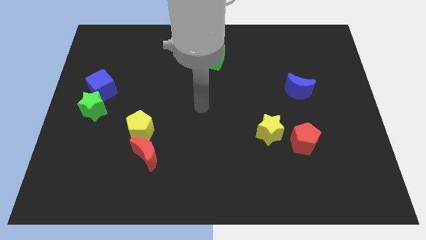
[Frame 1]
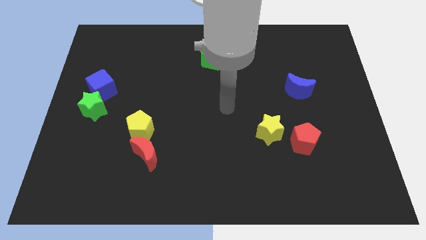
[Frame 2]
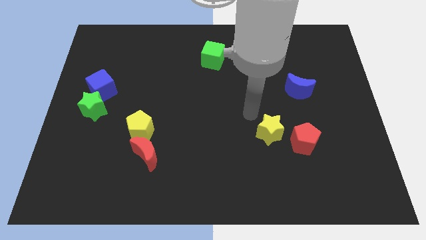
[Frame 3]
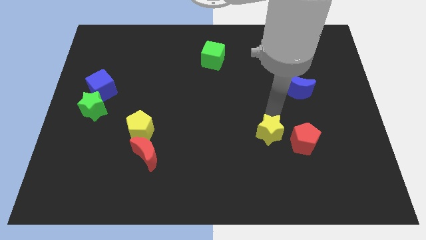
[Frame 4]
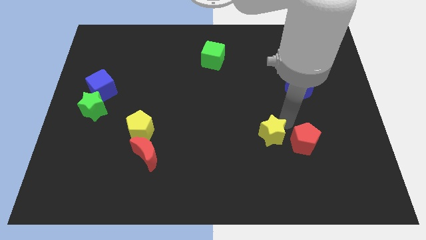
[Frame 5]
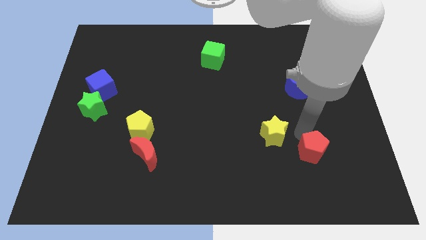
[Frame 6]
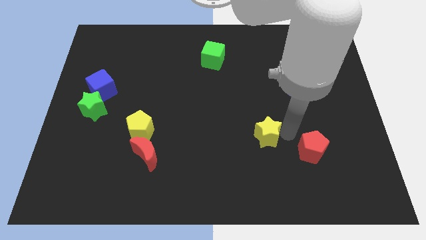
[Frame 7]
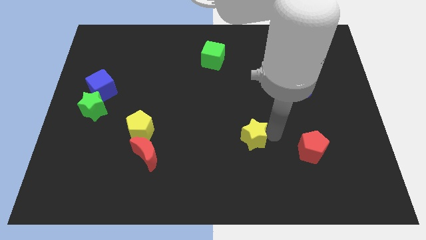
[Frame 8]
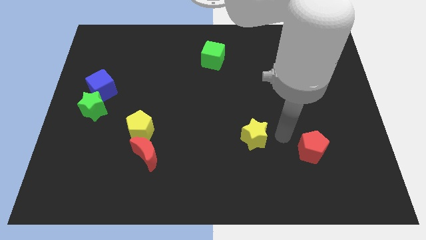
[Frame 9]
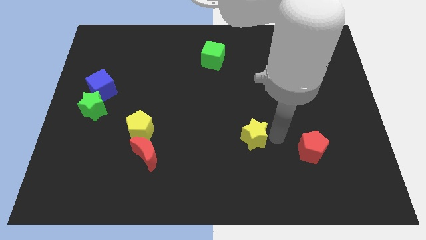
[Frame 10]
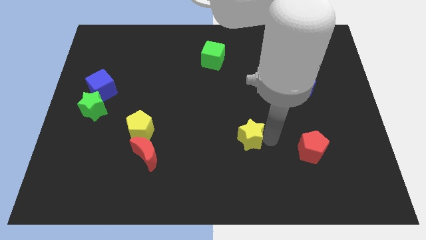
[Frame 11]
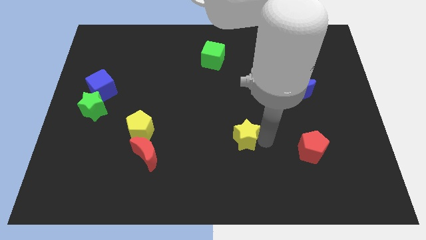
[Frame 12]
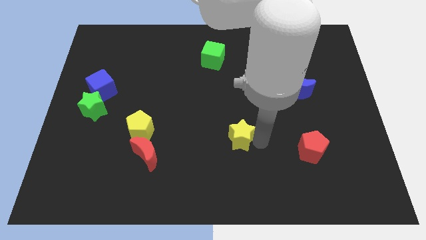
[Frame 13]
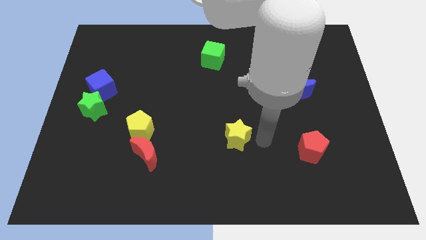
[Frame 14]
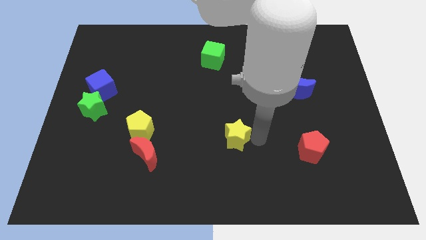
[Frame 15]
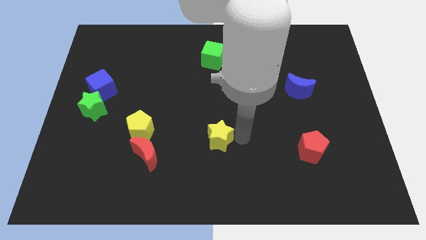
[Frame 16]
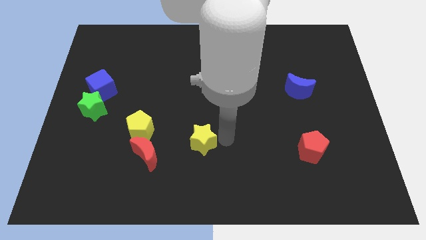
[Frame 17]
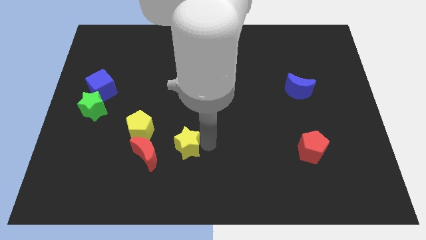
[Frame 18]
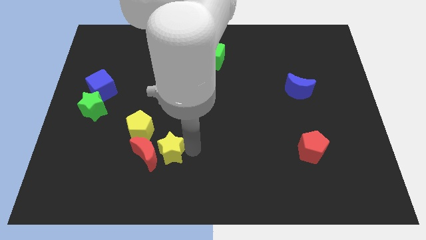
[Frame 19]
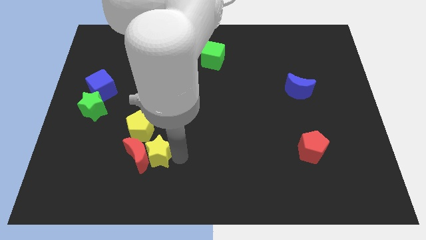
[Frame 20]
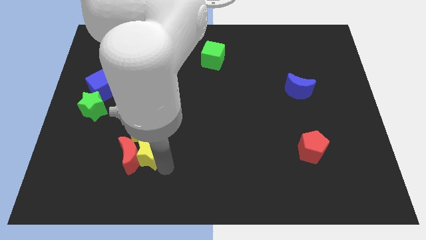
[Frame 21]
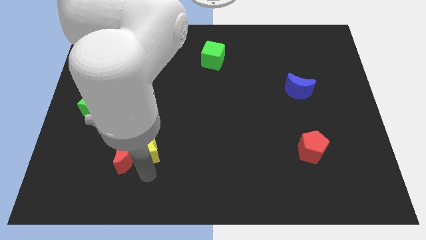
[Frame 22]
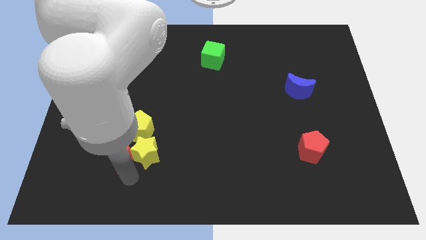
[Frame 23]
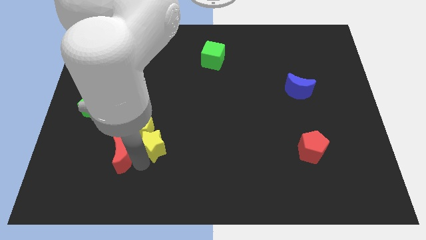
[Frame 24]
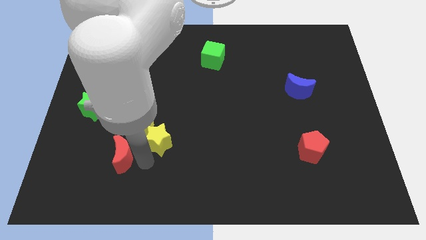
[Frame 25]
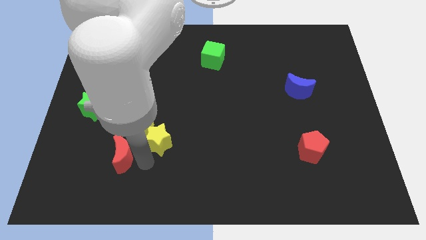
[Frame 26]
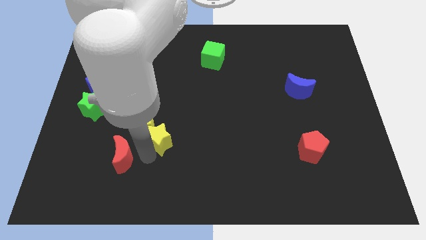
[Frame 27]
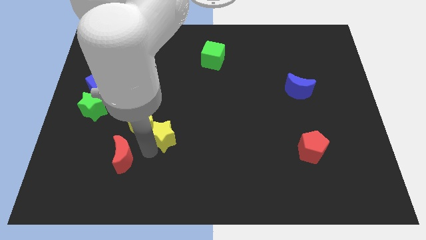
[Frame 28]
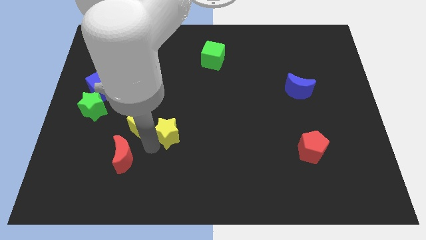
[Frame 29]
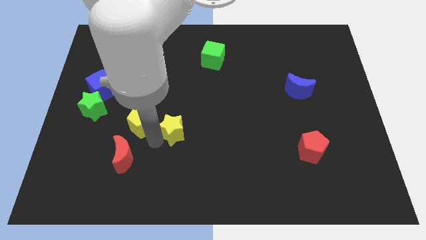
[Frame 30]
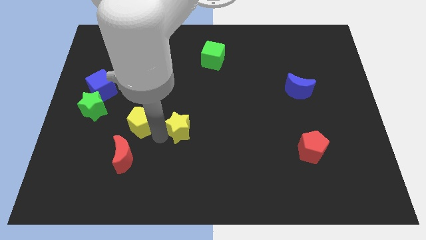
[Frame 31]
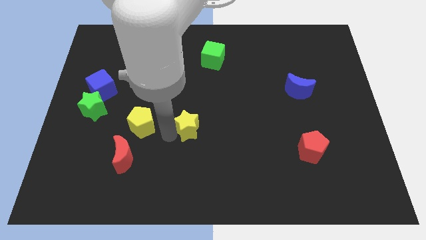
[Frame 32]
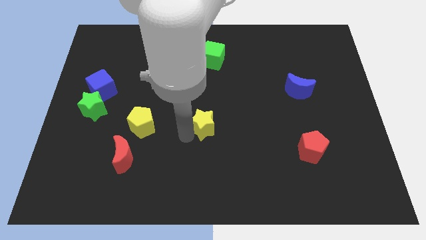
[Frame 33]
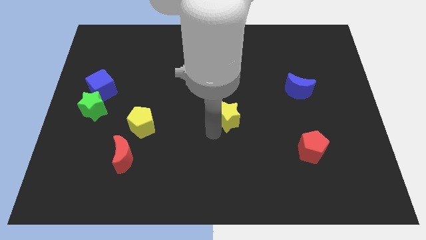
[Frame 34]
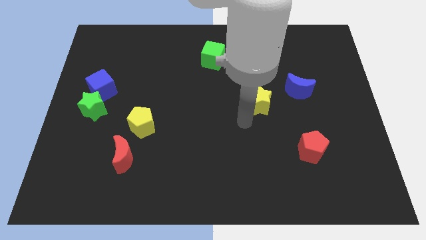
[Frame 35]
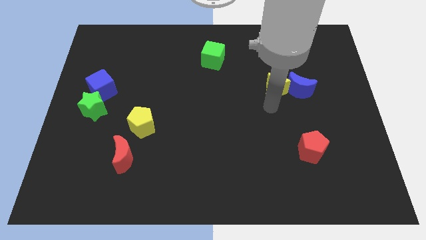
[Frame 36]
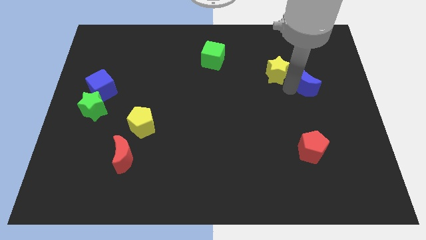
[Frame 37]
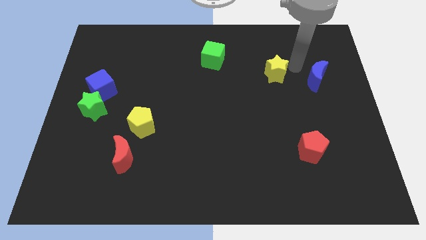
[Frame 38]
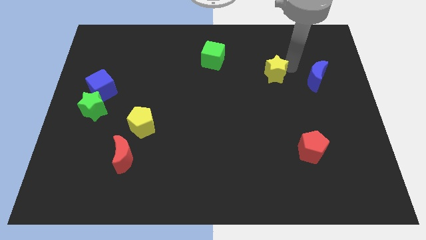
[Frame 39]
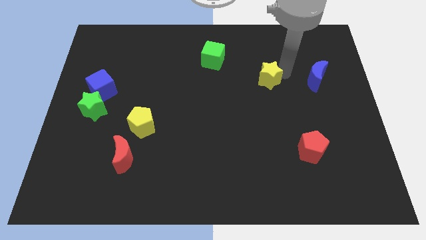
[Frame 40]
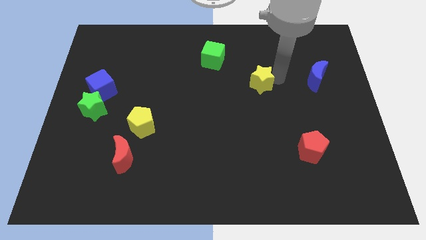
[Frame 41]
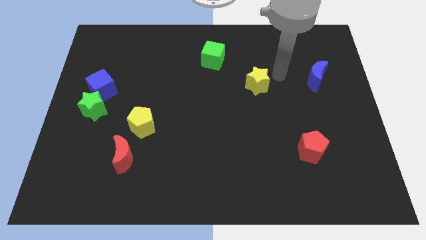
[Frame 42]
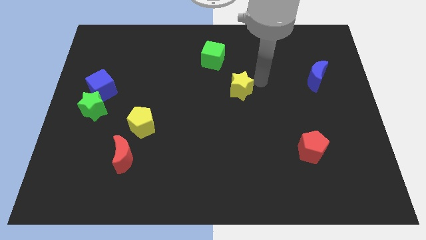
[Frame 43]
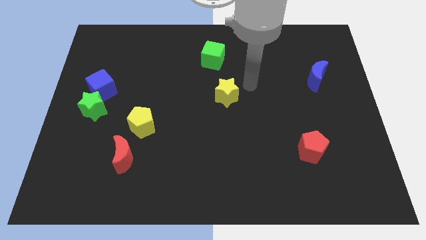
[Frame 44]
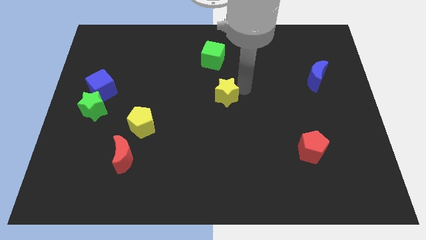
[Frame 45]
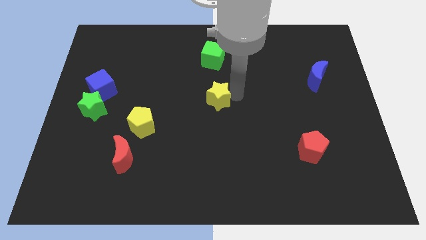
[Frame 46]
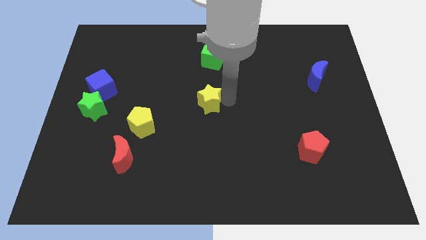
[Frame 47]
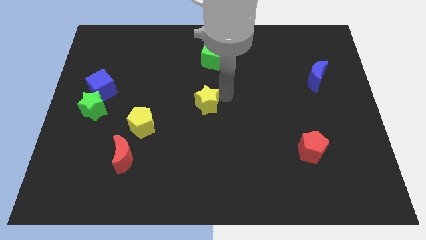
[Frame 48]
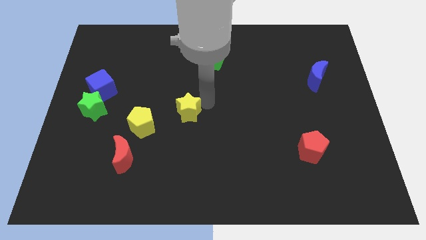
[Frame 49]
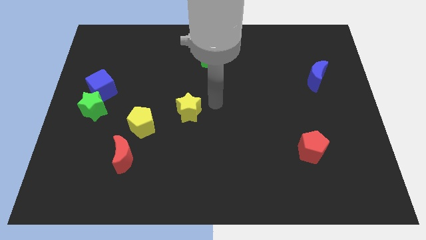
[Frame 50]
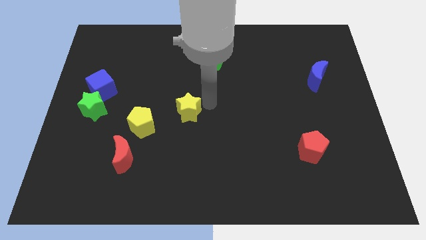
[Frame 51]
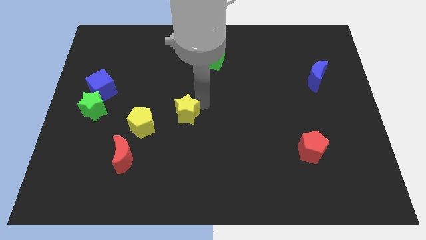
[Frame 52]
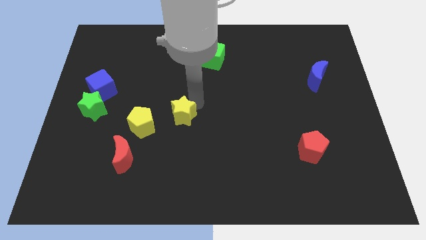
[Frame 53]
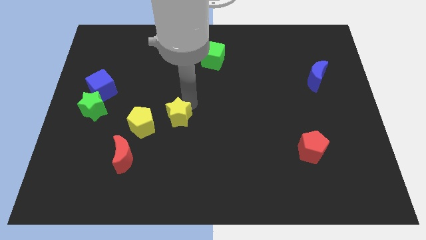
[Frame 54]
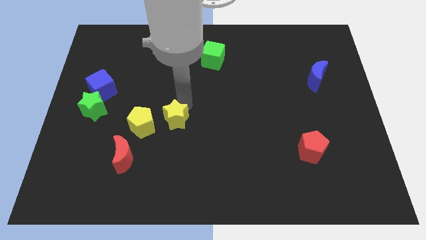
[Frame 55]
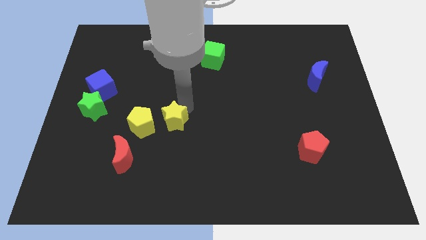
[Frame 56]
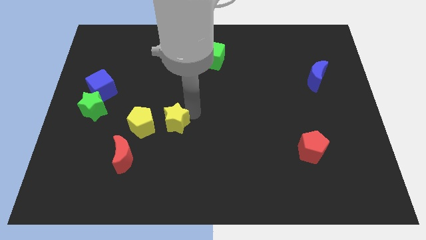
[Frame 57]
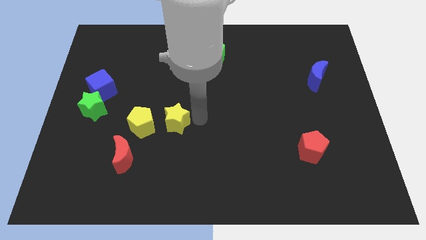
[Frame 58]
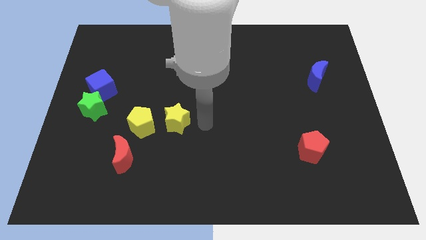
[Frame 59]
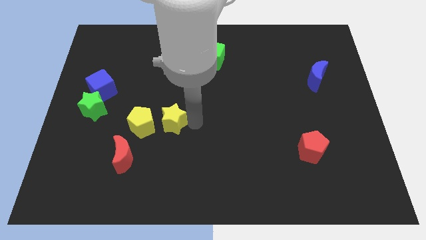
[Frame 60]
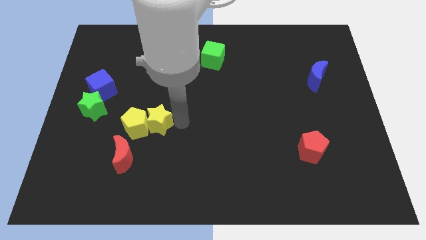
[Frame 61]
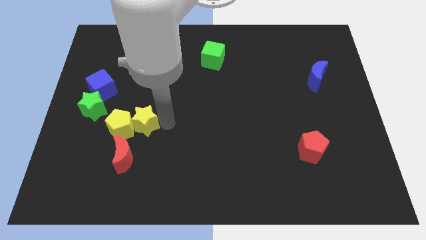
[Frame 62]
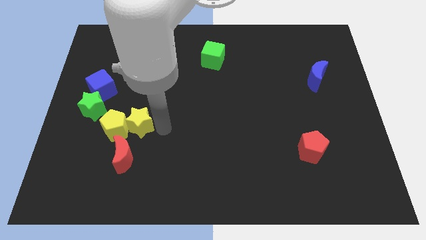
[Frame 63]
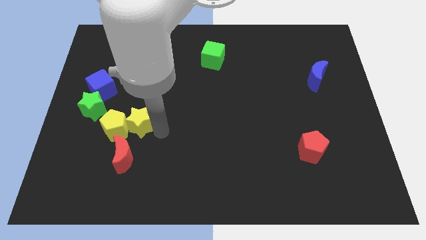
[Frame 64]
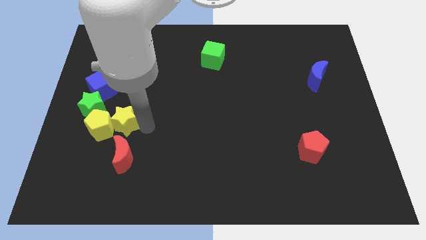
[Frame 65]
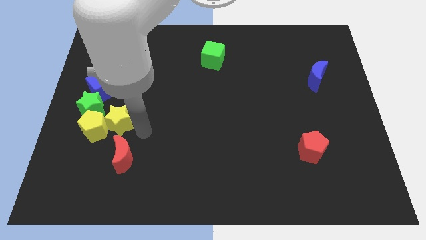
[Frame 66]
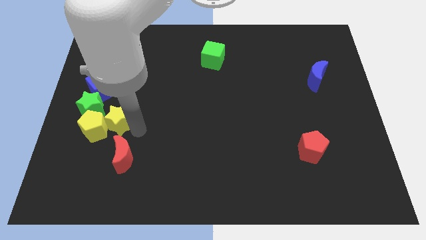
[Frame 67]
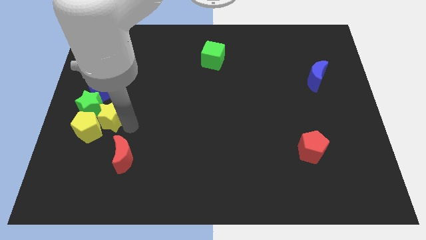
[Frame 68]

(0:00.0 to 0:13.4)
push the yellow star close to the green star

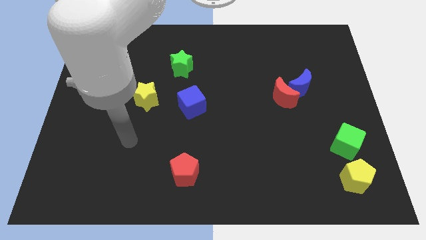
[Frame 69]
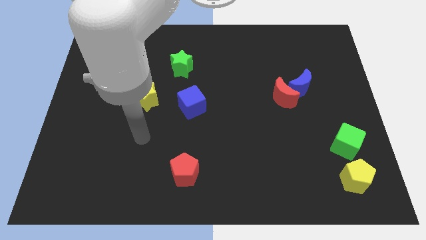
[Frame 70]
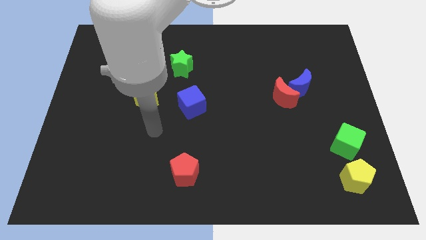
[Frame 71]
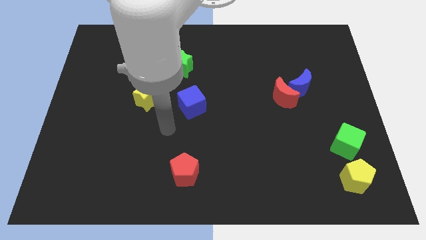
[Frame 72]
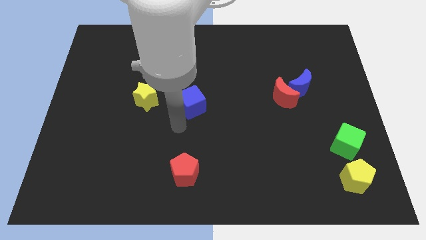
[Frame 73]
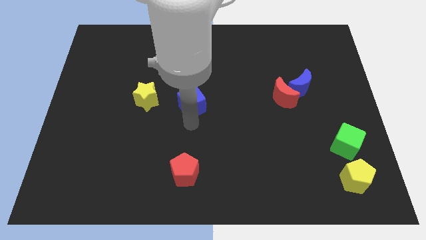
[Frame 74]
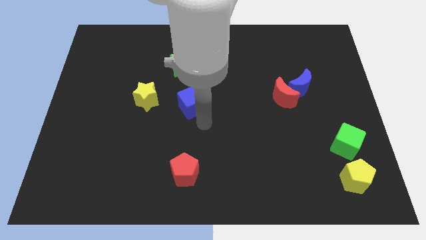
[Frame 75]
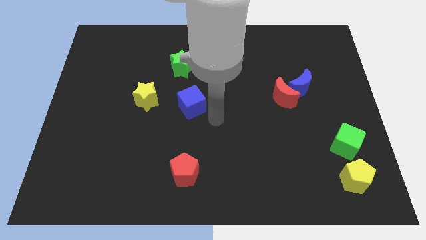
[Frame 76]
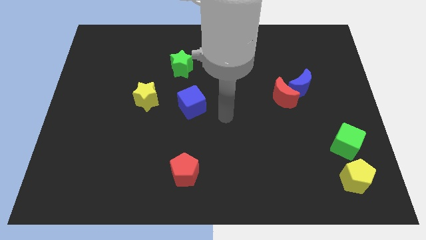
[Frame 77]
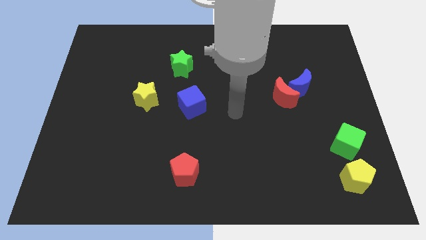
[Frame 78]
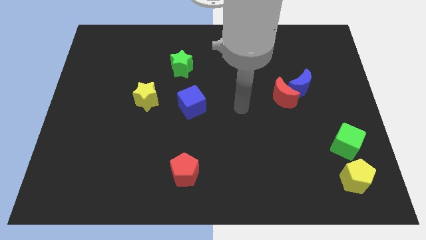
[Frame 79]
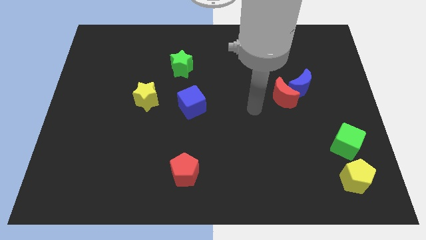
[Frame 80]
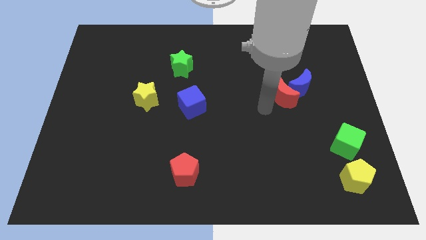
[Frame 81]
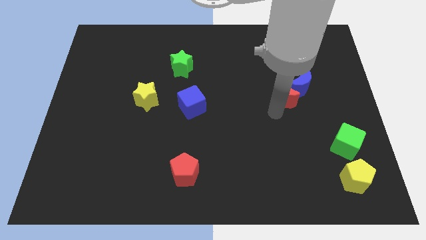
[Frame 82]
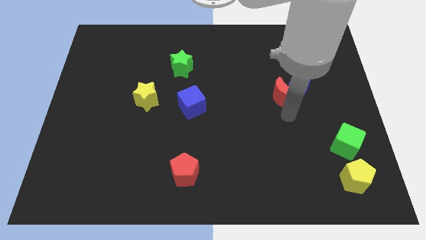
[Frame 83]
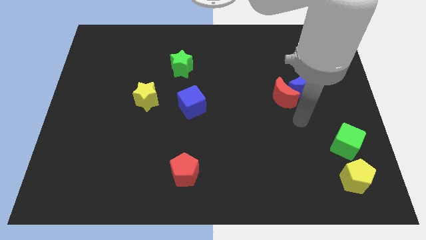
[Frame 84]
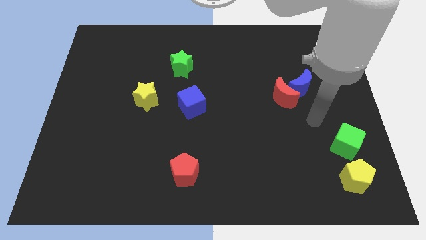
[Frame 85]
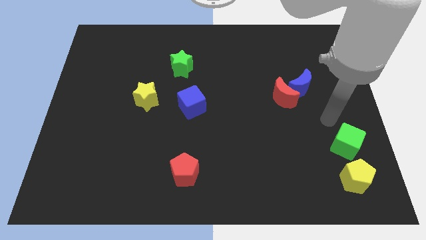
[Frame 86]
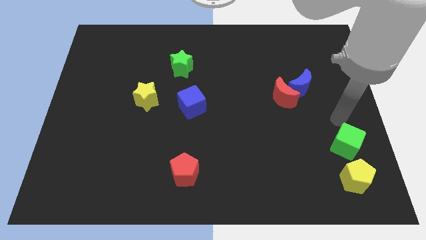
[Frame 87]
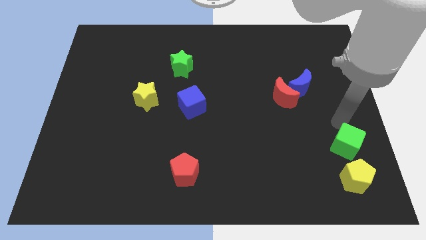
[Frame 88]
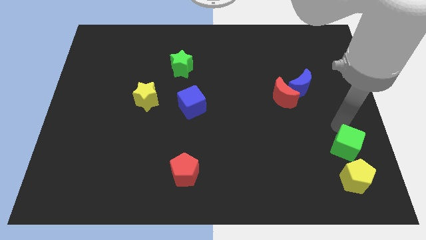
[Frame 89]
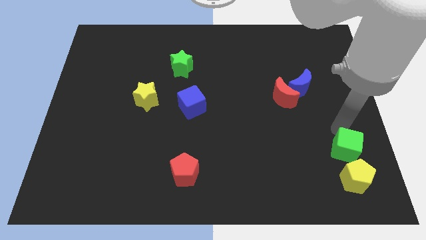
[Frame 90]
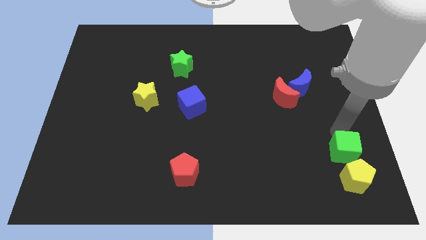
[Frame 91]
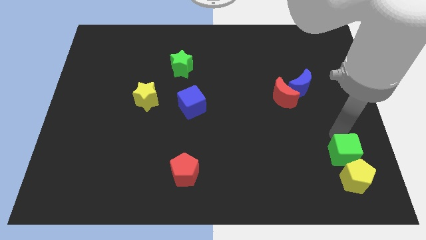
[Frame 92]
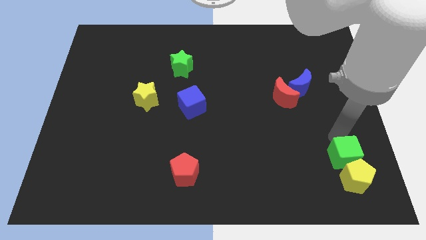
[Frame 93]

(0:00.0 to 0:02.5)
push the green cube close to the yellow pentagon
